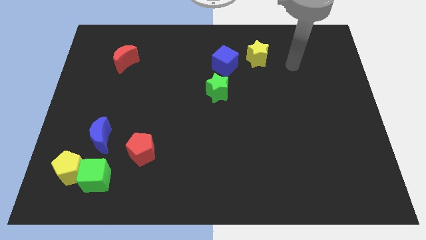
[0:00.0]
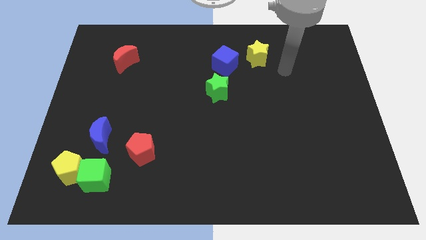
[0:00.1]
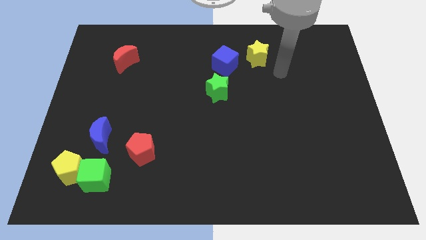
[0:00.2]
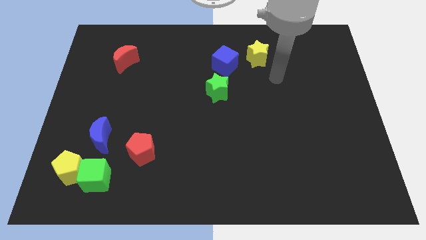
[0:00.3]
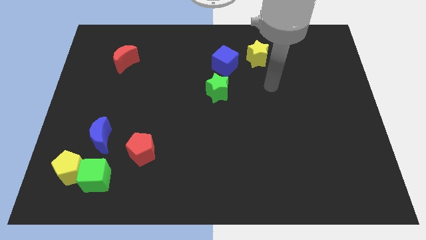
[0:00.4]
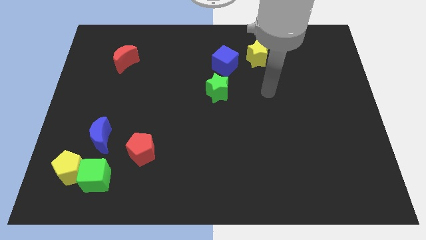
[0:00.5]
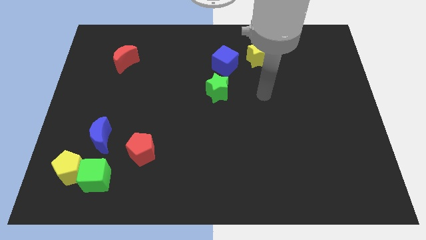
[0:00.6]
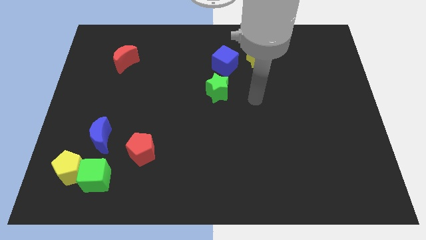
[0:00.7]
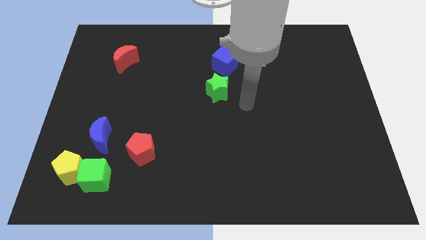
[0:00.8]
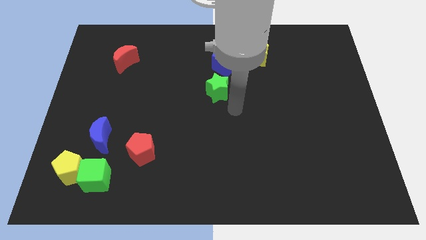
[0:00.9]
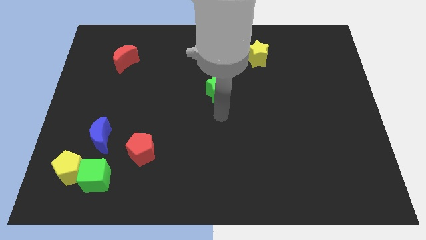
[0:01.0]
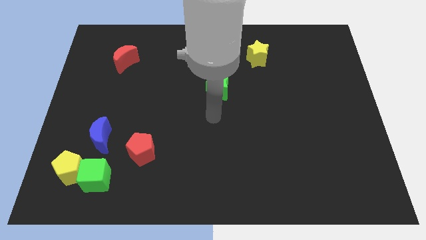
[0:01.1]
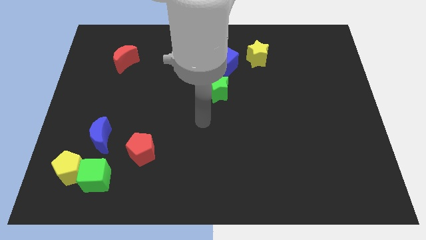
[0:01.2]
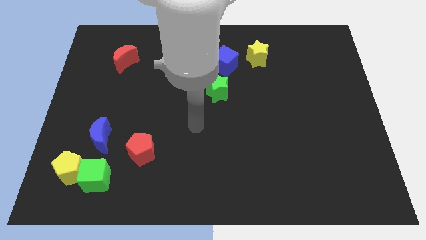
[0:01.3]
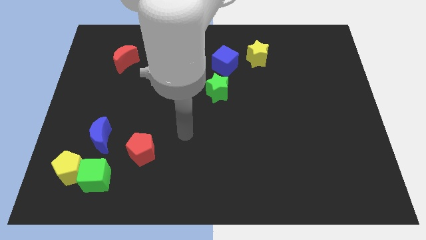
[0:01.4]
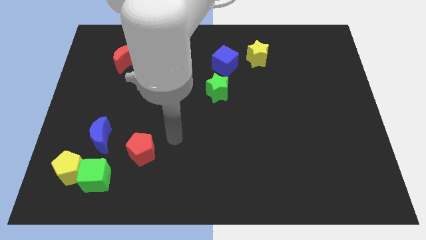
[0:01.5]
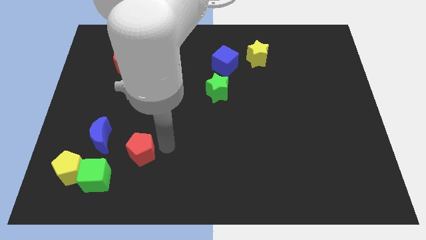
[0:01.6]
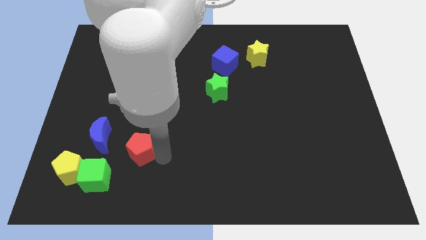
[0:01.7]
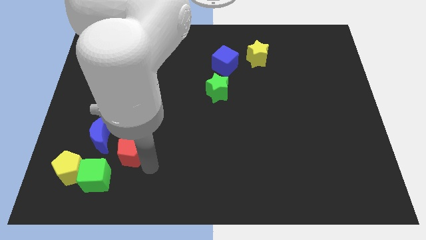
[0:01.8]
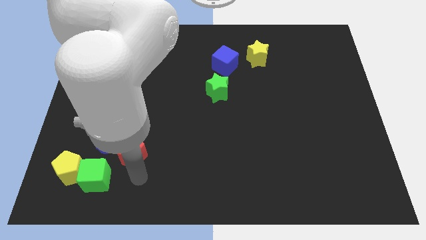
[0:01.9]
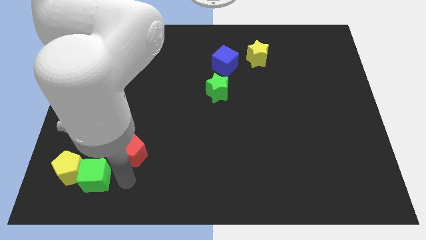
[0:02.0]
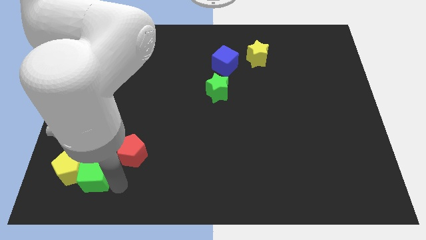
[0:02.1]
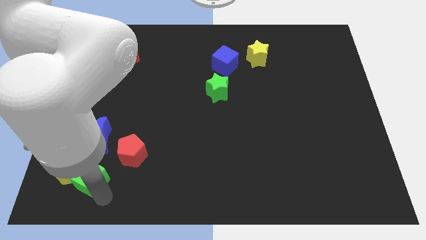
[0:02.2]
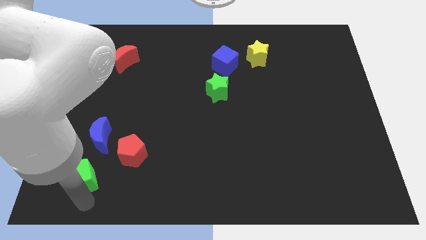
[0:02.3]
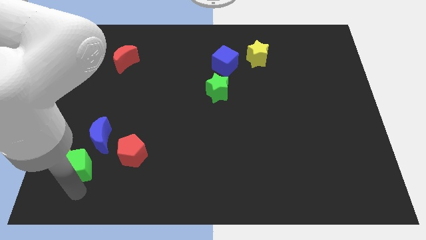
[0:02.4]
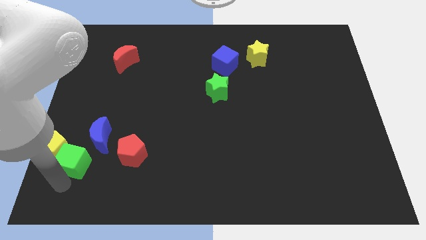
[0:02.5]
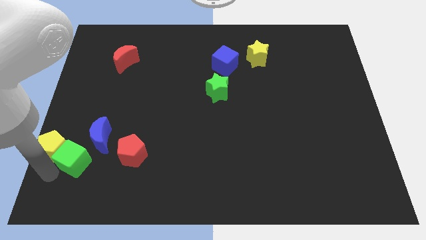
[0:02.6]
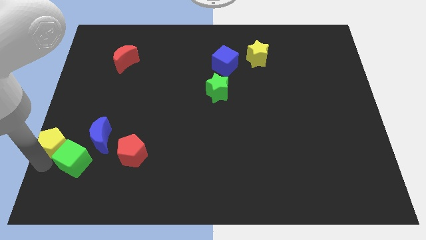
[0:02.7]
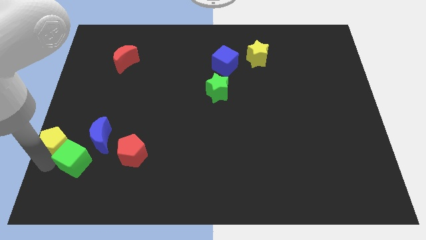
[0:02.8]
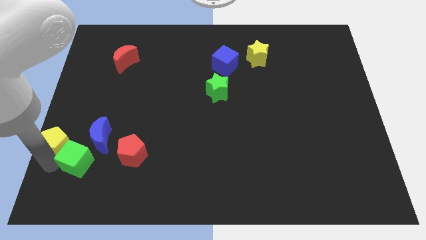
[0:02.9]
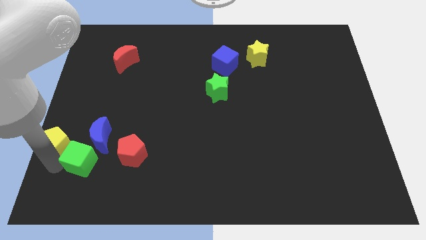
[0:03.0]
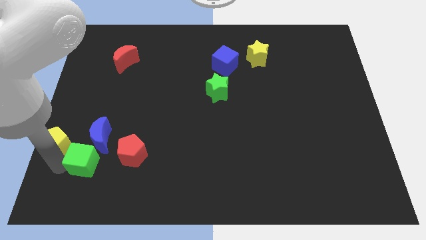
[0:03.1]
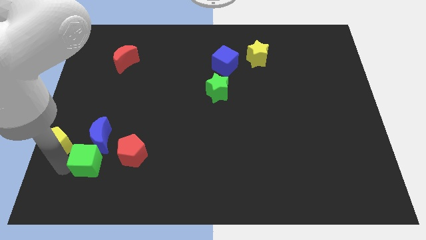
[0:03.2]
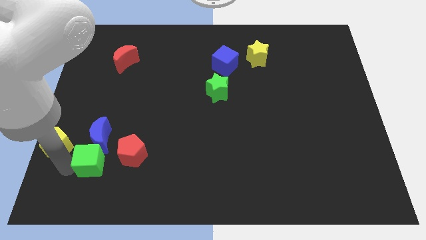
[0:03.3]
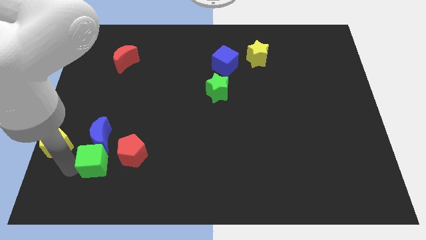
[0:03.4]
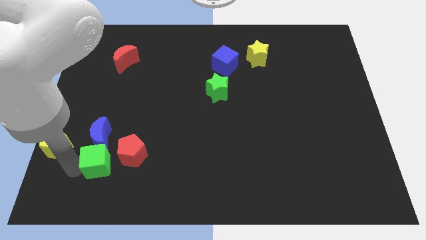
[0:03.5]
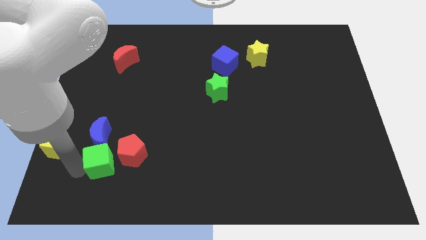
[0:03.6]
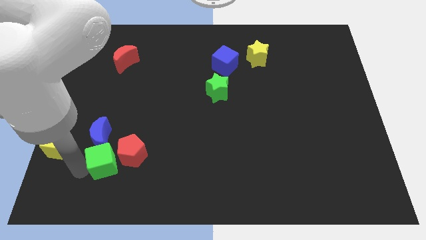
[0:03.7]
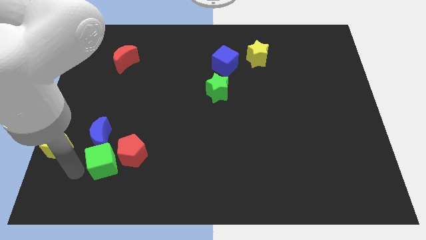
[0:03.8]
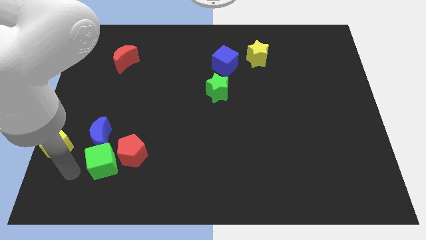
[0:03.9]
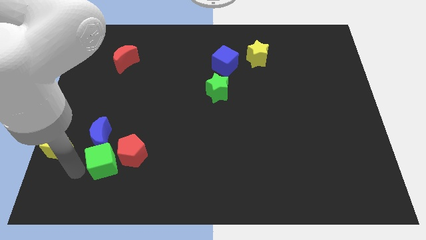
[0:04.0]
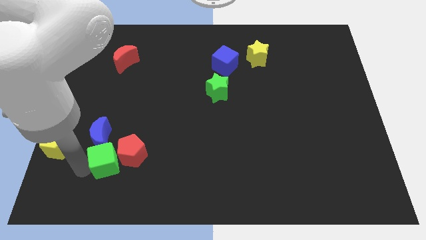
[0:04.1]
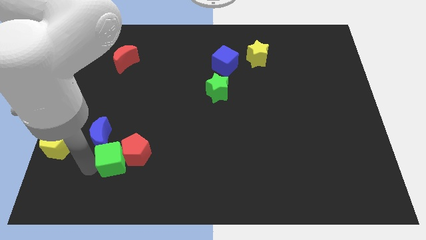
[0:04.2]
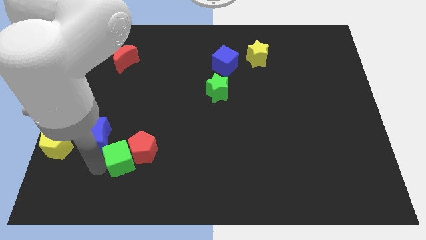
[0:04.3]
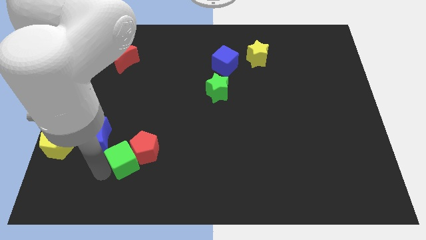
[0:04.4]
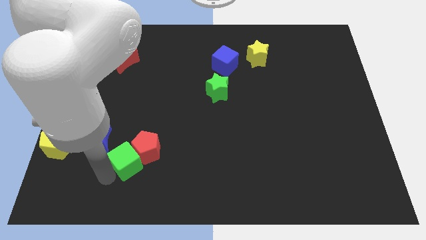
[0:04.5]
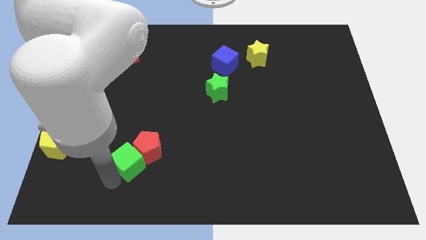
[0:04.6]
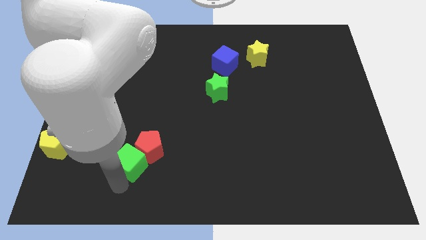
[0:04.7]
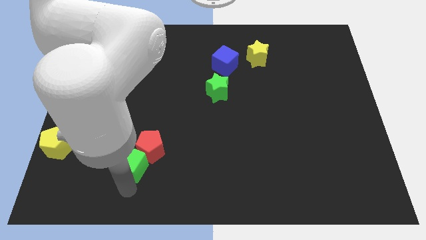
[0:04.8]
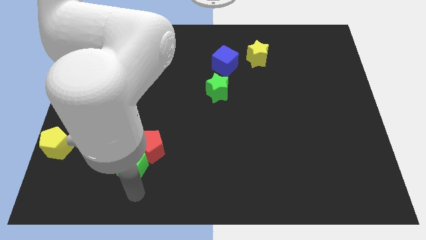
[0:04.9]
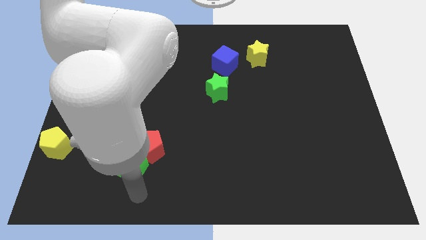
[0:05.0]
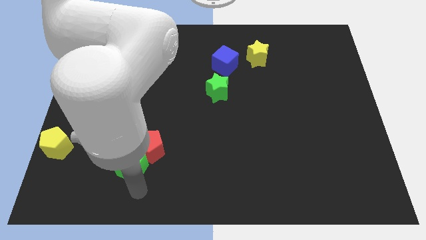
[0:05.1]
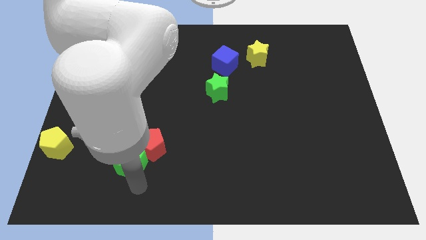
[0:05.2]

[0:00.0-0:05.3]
slightly move the green cube up and right

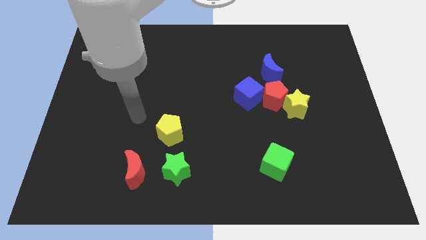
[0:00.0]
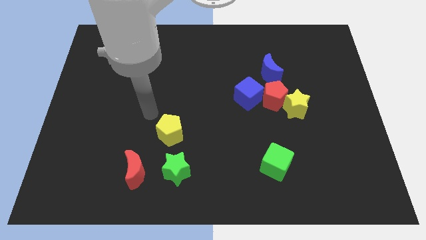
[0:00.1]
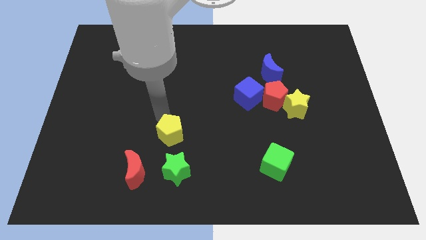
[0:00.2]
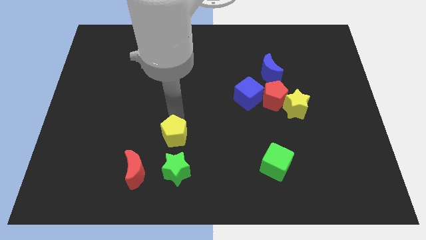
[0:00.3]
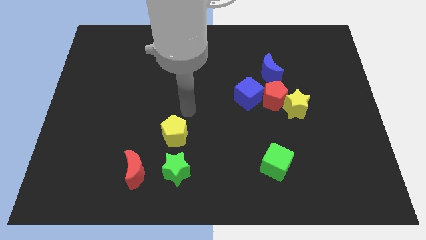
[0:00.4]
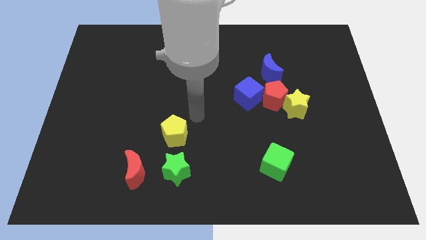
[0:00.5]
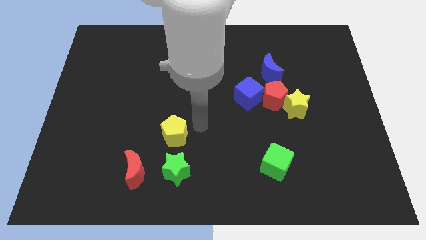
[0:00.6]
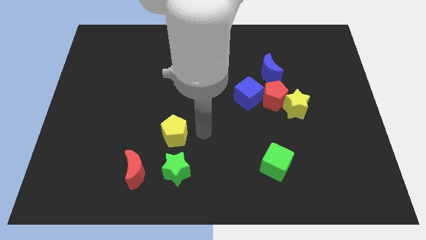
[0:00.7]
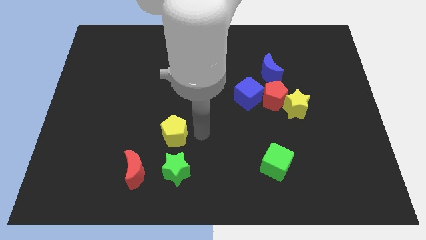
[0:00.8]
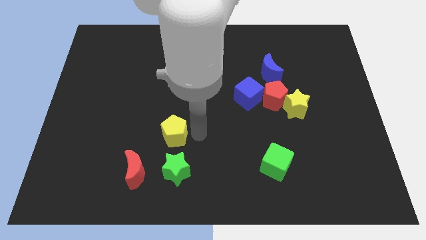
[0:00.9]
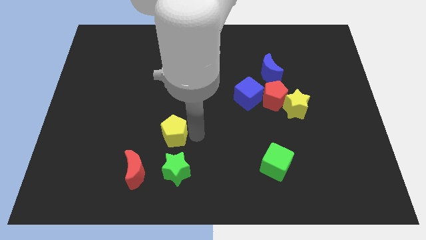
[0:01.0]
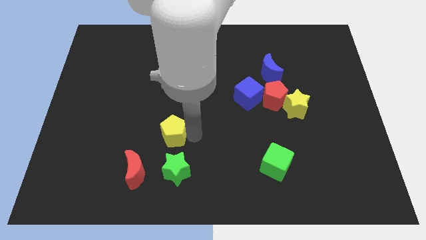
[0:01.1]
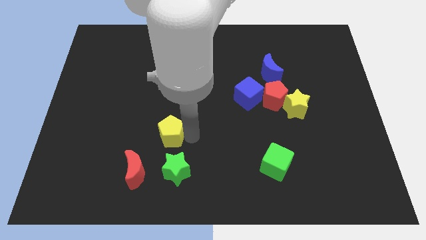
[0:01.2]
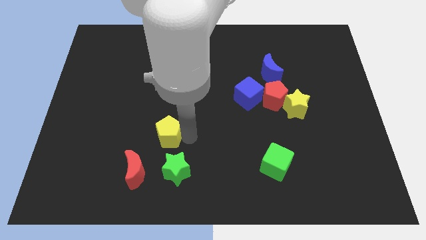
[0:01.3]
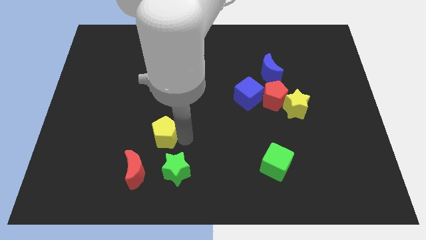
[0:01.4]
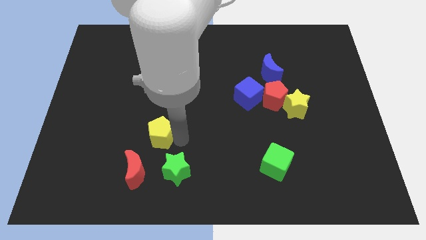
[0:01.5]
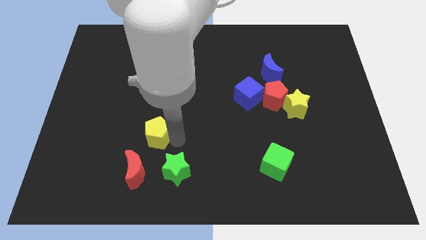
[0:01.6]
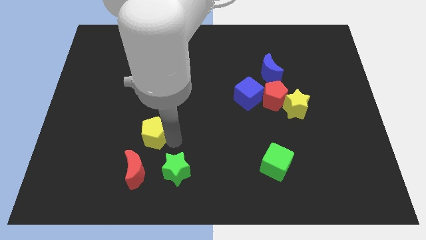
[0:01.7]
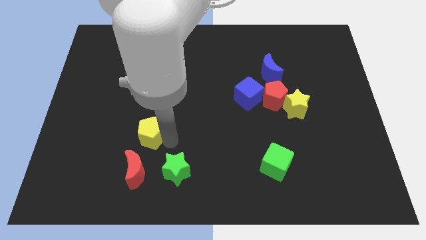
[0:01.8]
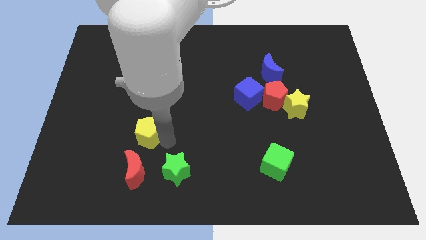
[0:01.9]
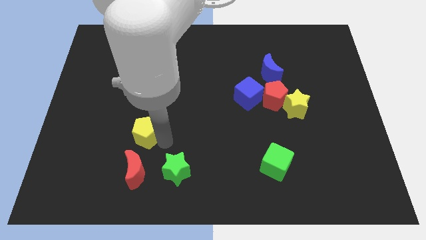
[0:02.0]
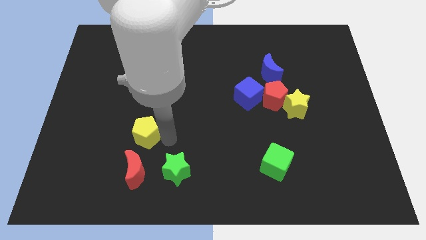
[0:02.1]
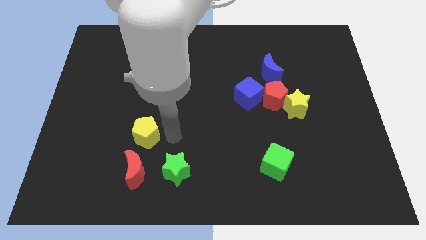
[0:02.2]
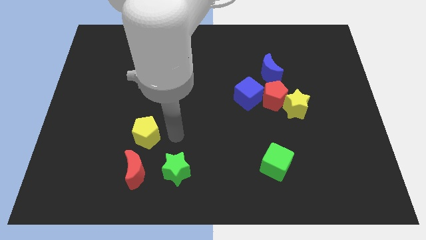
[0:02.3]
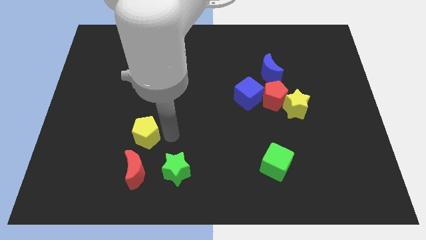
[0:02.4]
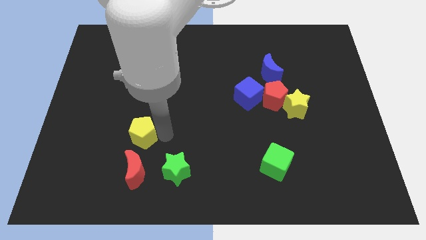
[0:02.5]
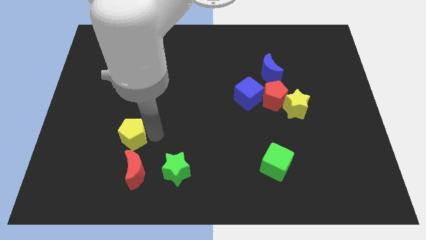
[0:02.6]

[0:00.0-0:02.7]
push the yellow pentagon left a bit
